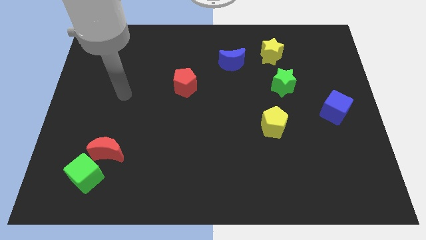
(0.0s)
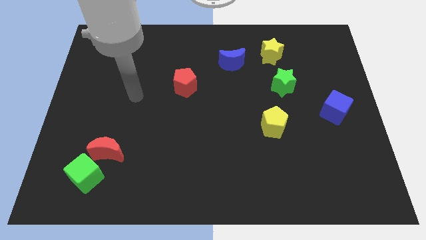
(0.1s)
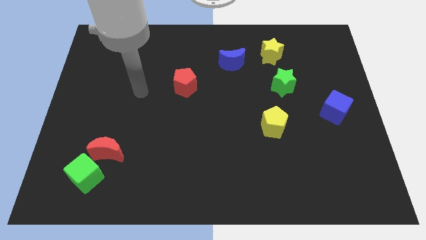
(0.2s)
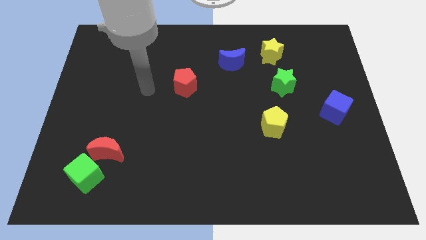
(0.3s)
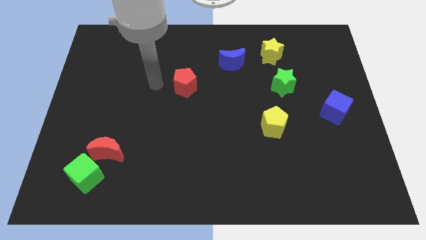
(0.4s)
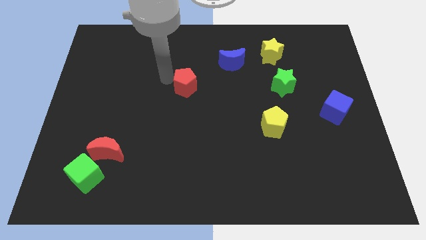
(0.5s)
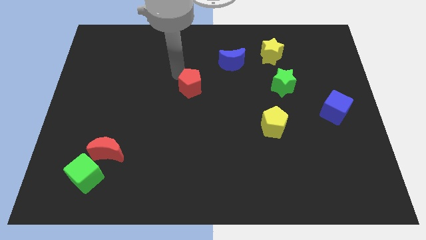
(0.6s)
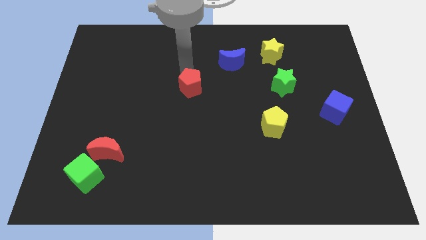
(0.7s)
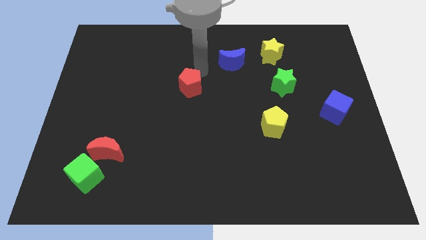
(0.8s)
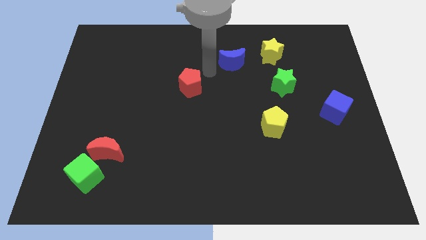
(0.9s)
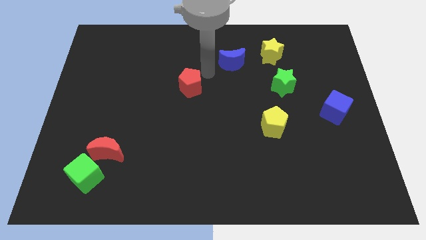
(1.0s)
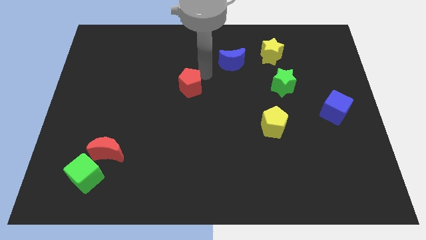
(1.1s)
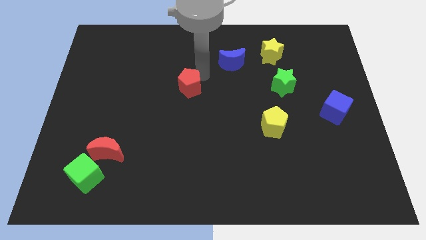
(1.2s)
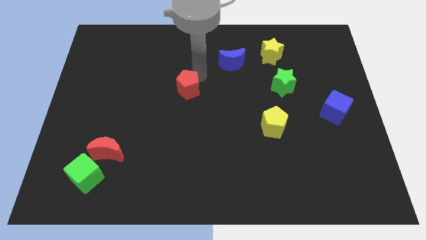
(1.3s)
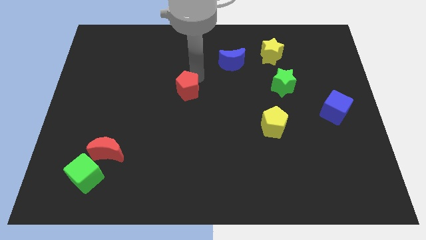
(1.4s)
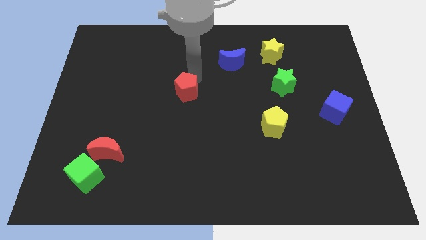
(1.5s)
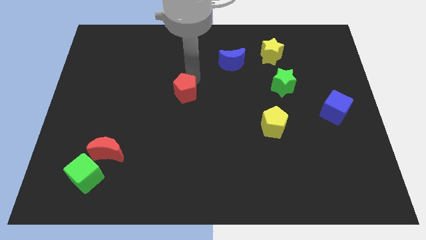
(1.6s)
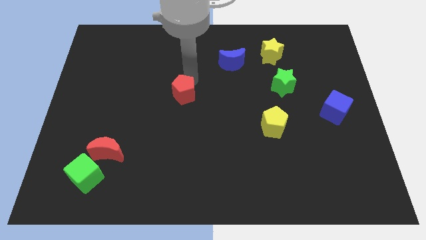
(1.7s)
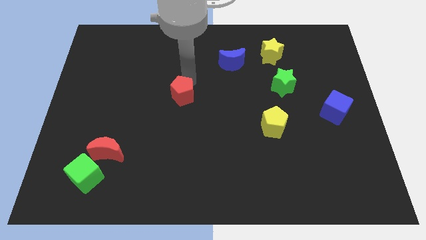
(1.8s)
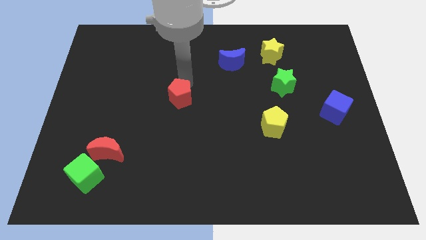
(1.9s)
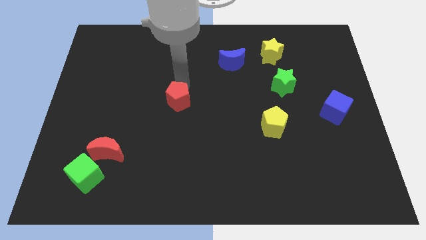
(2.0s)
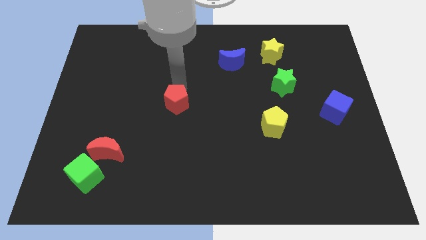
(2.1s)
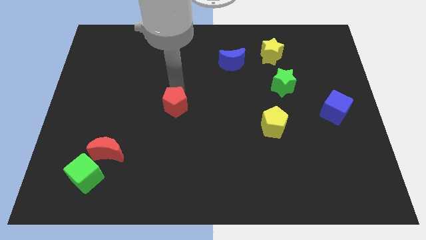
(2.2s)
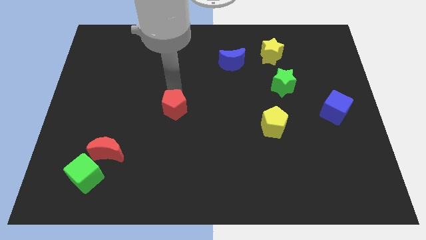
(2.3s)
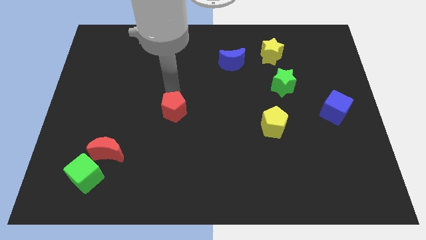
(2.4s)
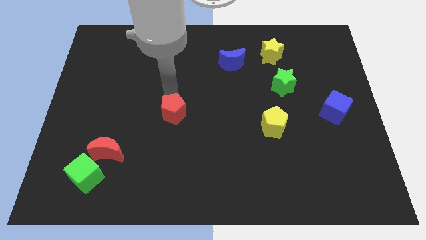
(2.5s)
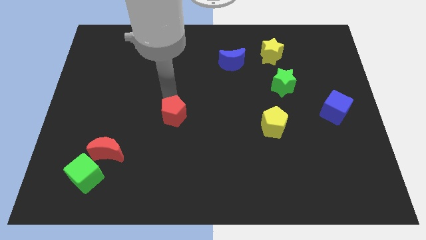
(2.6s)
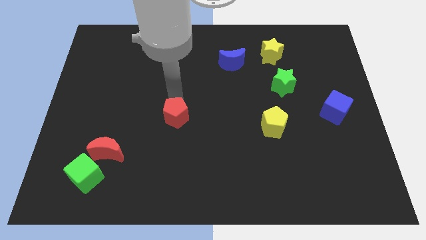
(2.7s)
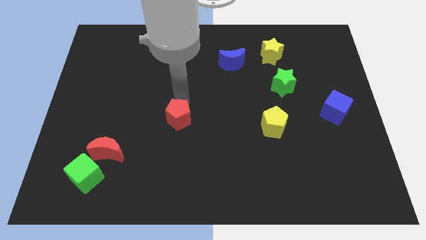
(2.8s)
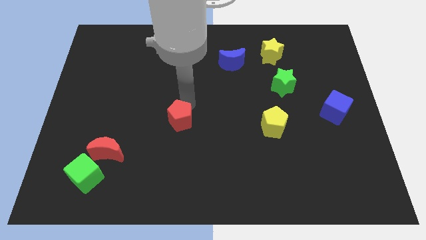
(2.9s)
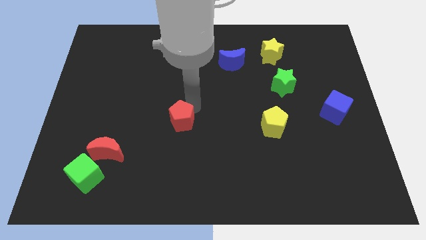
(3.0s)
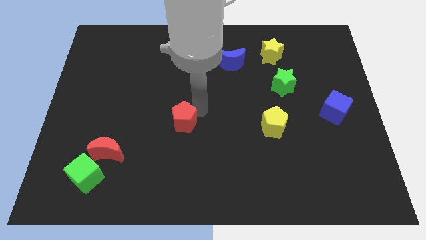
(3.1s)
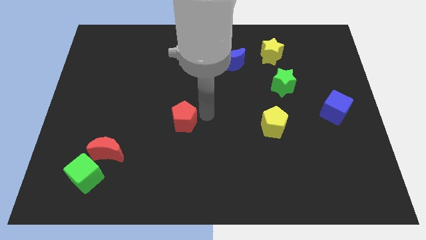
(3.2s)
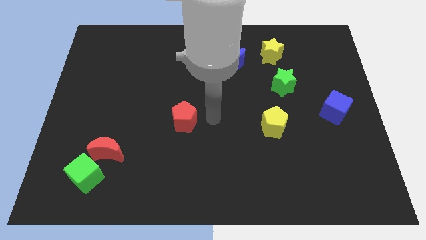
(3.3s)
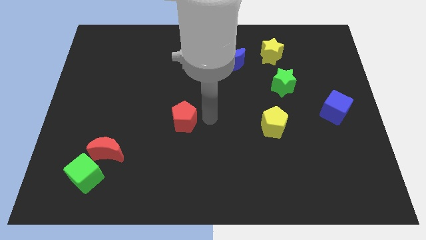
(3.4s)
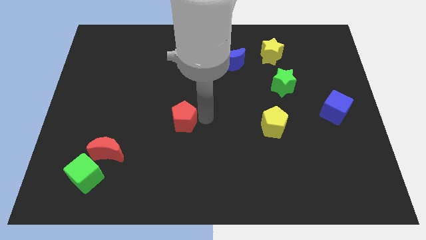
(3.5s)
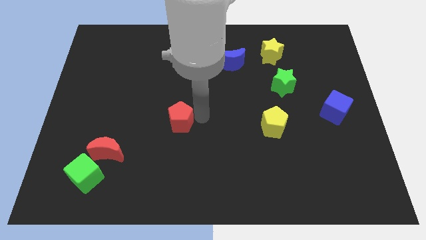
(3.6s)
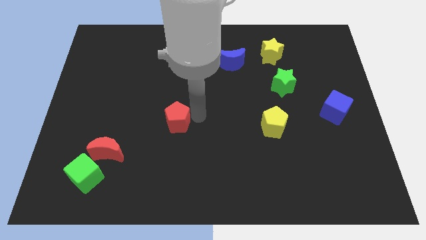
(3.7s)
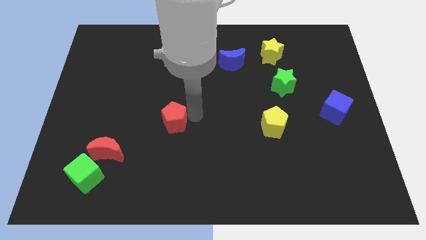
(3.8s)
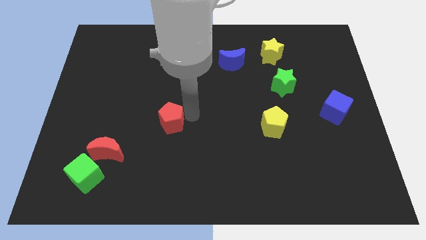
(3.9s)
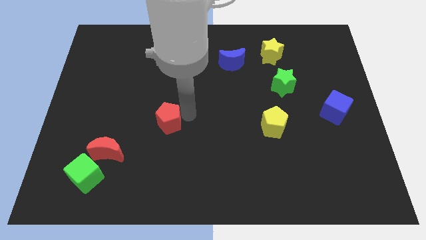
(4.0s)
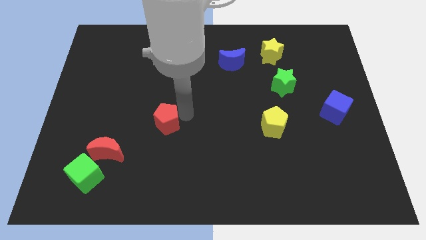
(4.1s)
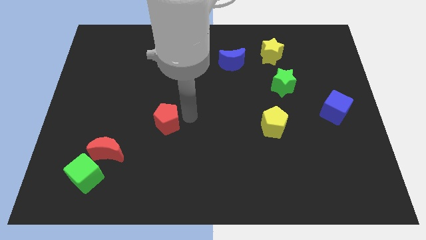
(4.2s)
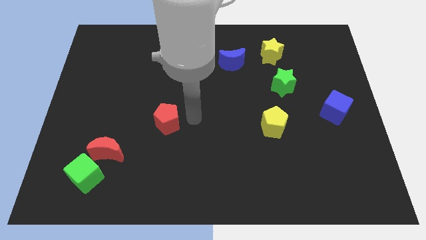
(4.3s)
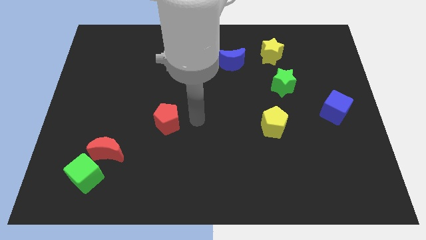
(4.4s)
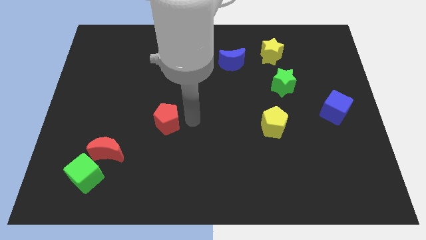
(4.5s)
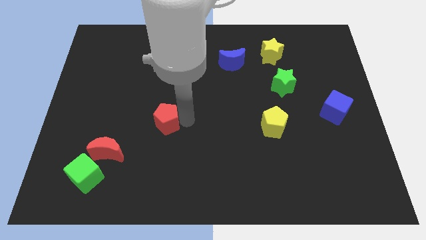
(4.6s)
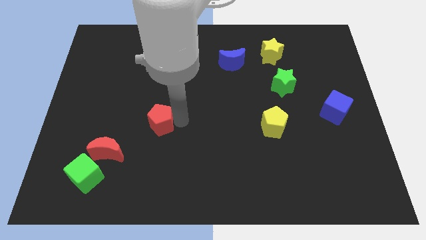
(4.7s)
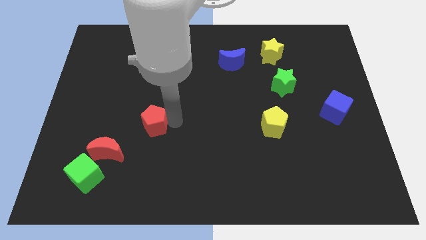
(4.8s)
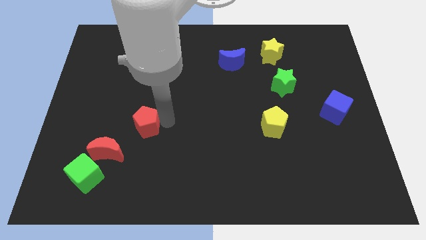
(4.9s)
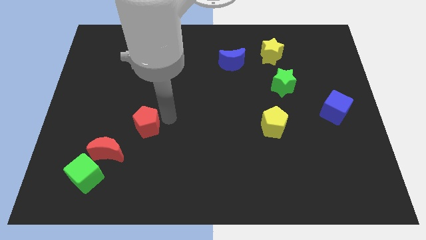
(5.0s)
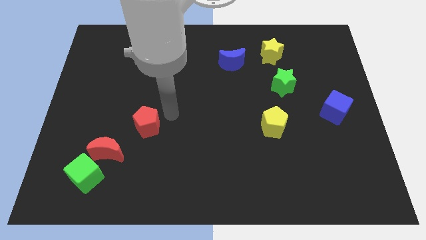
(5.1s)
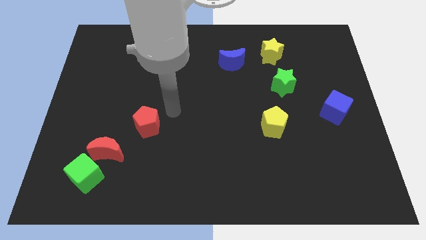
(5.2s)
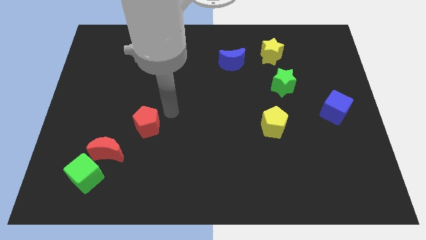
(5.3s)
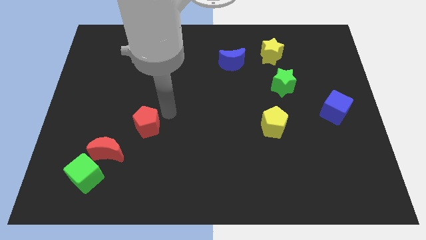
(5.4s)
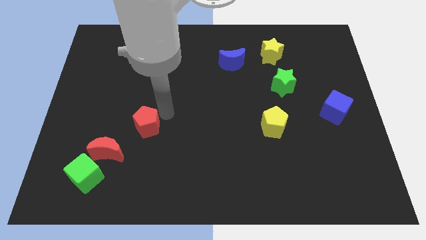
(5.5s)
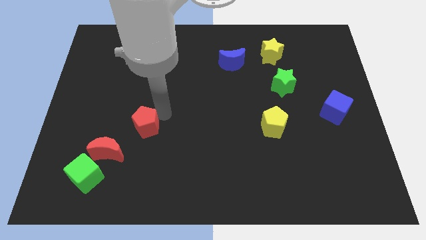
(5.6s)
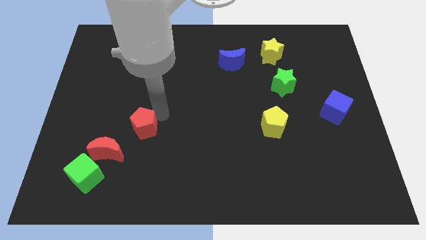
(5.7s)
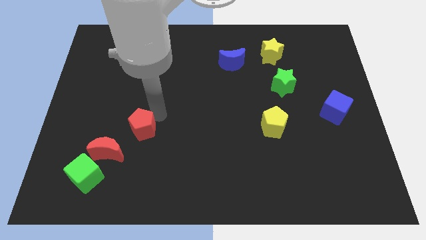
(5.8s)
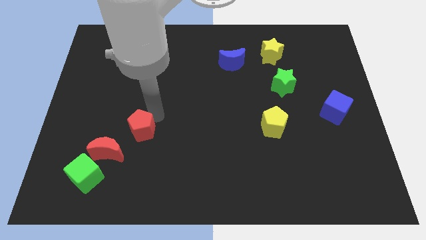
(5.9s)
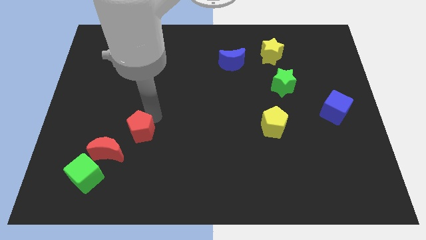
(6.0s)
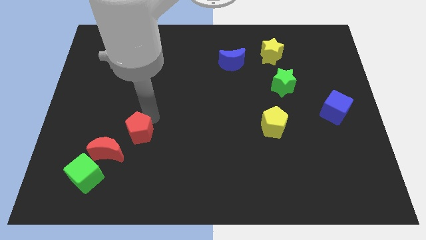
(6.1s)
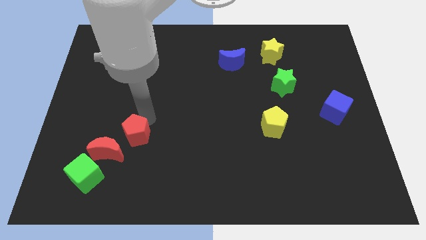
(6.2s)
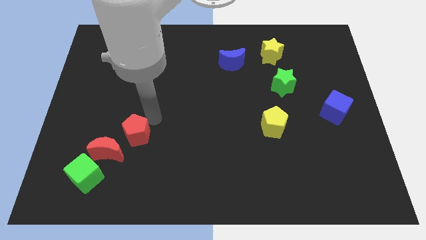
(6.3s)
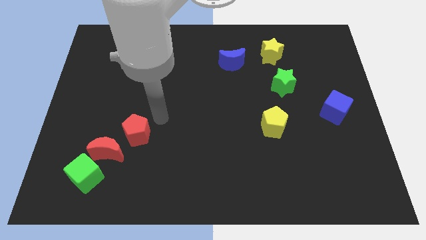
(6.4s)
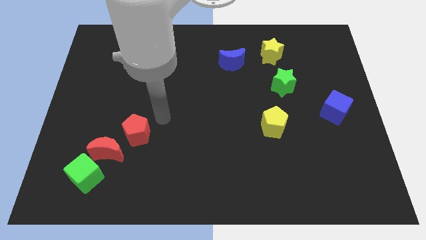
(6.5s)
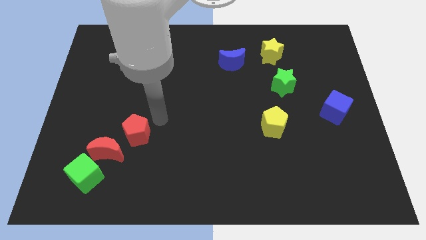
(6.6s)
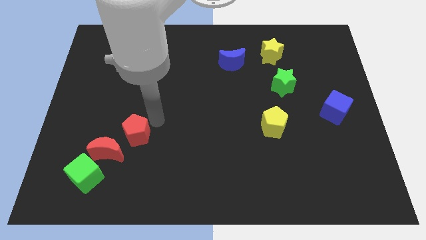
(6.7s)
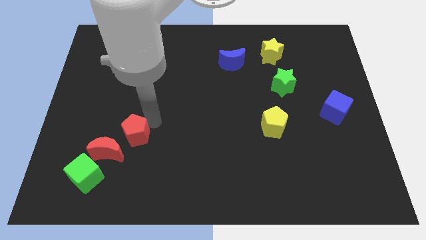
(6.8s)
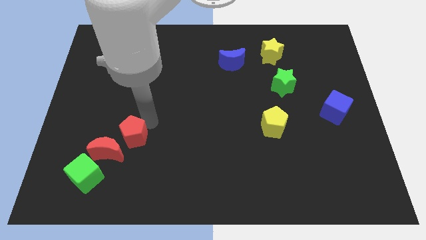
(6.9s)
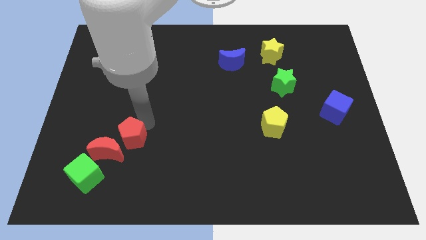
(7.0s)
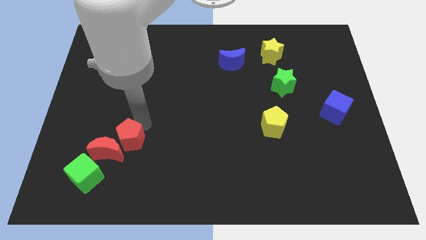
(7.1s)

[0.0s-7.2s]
slide the red pentagon towards the red moon

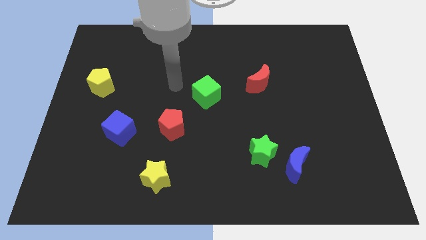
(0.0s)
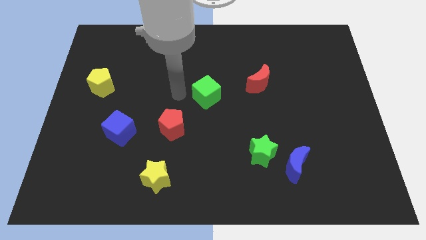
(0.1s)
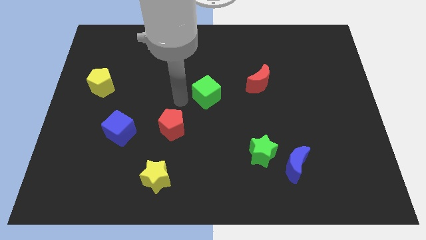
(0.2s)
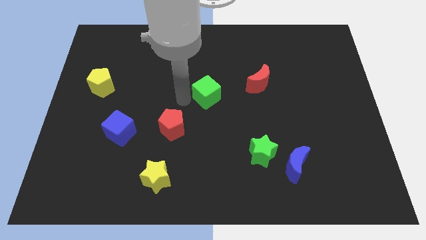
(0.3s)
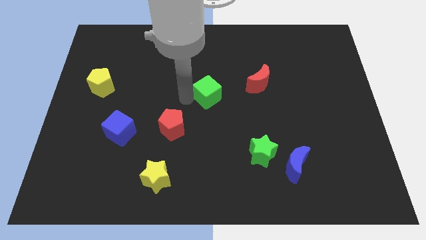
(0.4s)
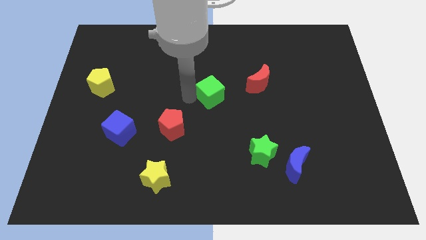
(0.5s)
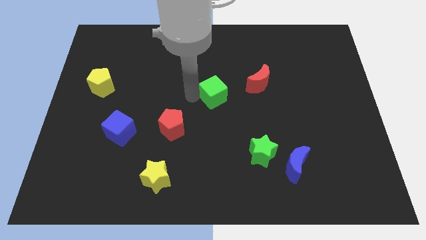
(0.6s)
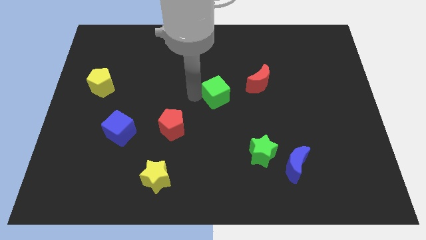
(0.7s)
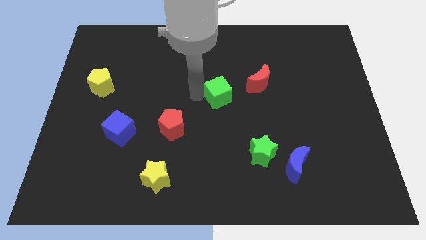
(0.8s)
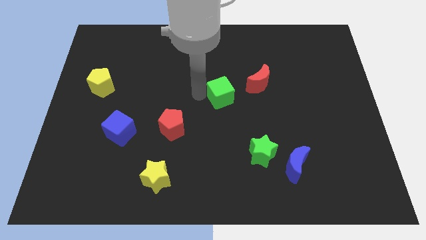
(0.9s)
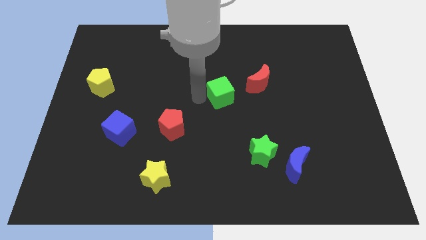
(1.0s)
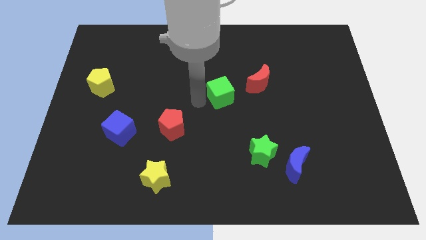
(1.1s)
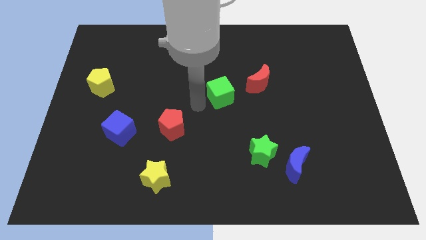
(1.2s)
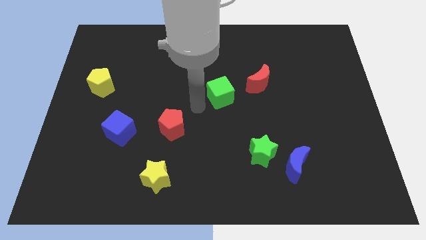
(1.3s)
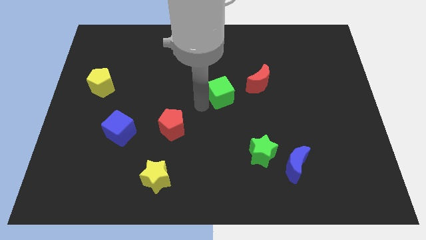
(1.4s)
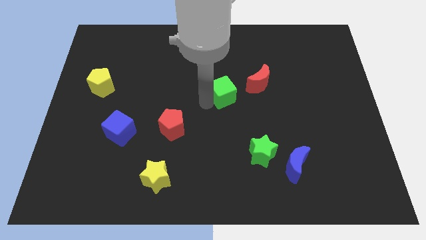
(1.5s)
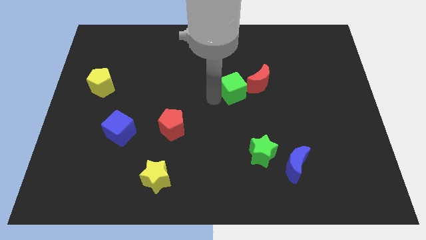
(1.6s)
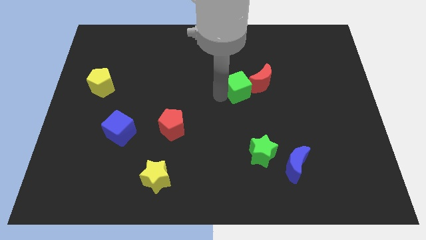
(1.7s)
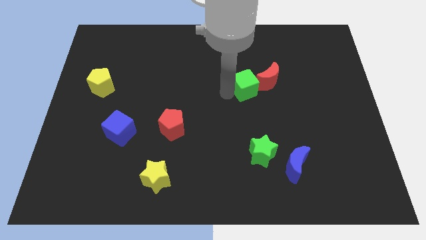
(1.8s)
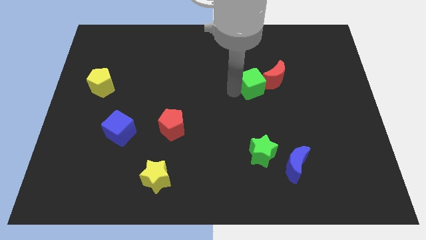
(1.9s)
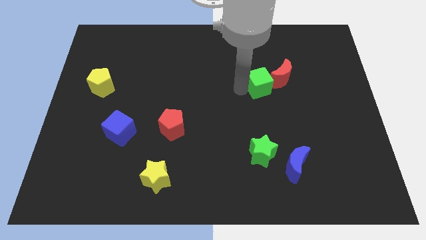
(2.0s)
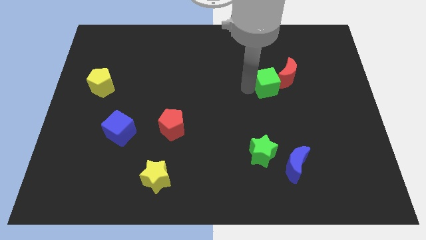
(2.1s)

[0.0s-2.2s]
push the green cube to the red moon
